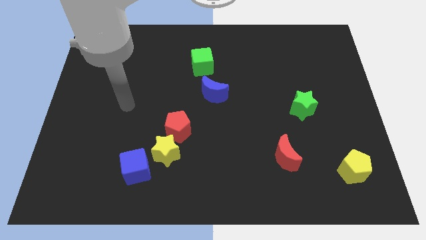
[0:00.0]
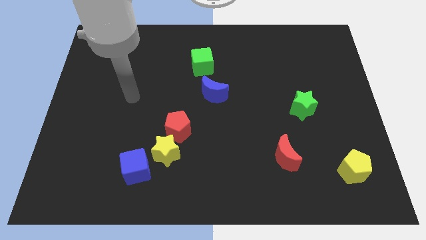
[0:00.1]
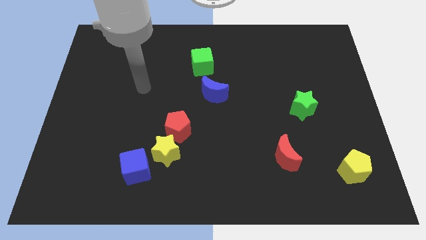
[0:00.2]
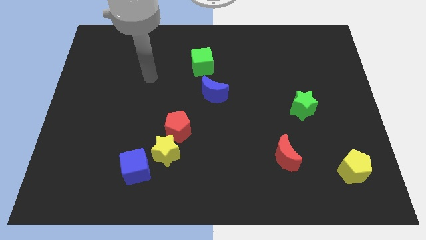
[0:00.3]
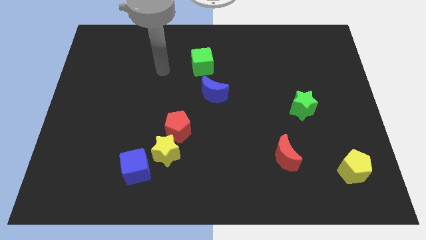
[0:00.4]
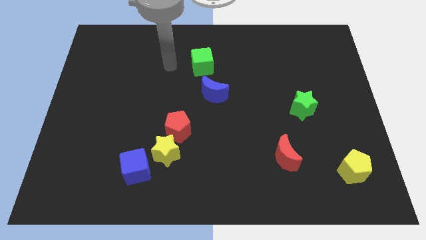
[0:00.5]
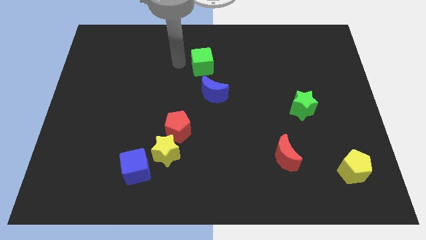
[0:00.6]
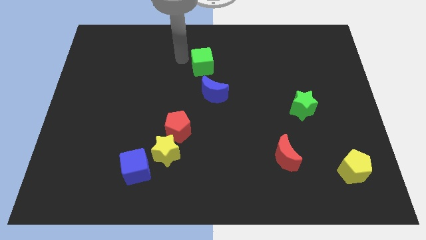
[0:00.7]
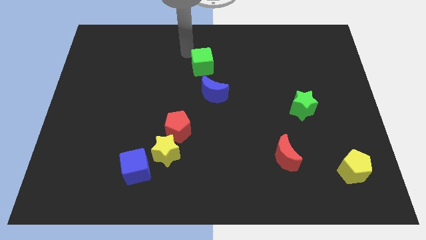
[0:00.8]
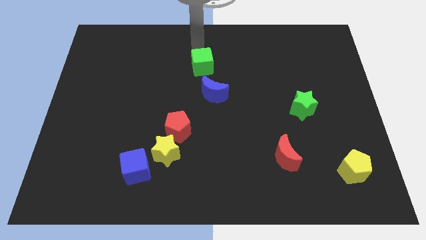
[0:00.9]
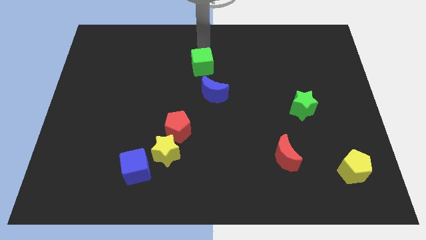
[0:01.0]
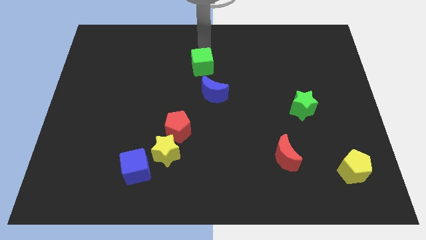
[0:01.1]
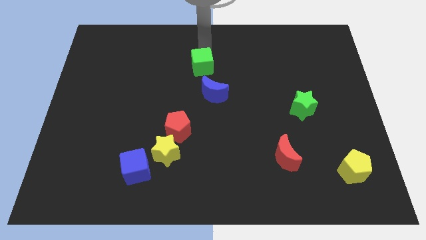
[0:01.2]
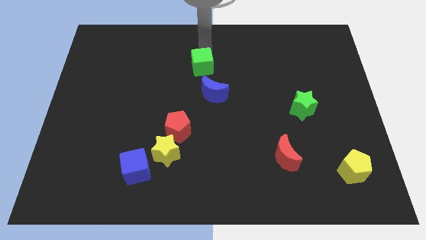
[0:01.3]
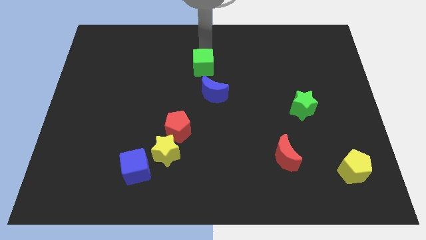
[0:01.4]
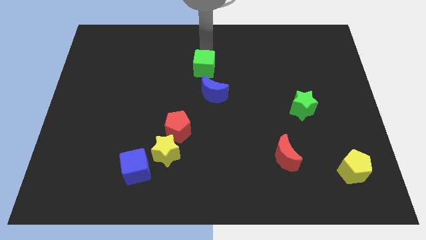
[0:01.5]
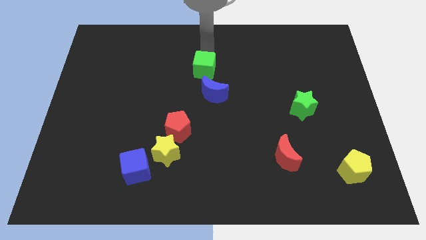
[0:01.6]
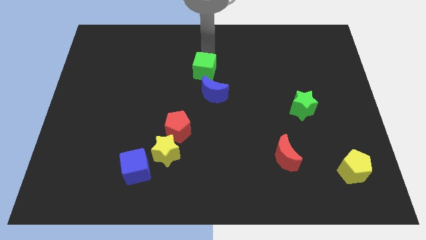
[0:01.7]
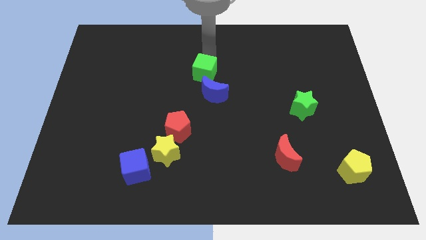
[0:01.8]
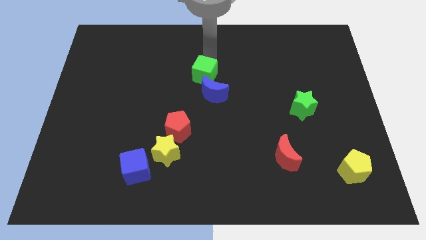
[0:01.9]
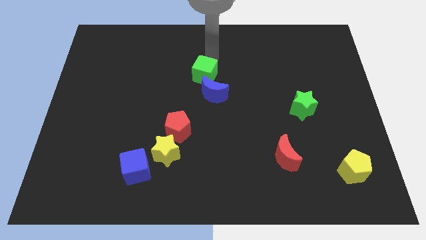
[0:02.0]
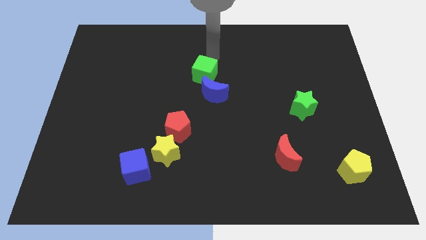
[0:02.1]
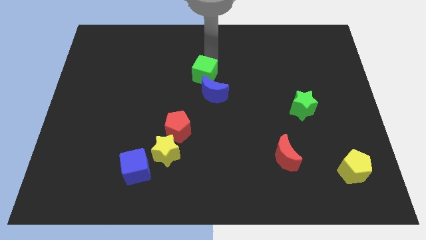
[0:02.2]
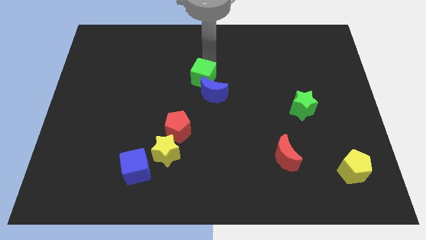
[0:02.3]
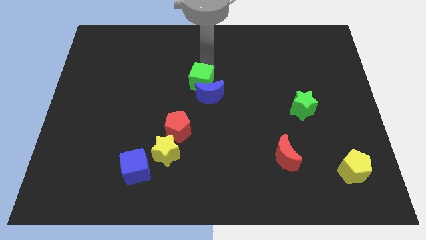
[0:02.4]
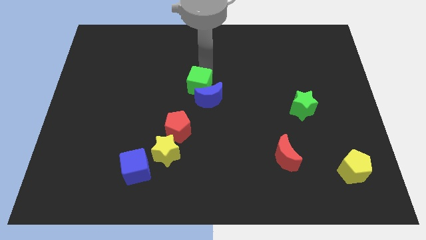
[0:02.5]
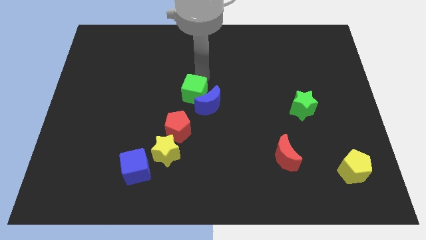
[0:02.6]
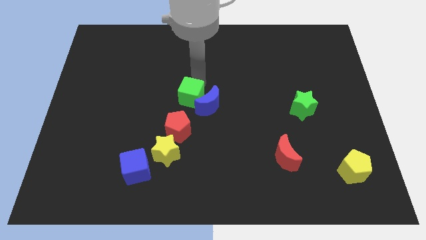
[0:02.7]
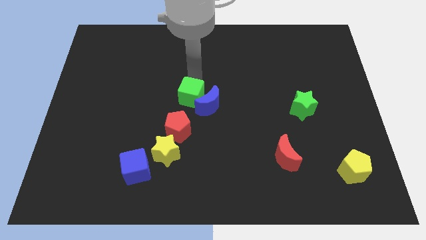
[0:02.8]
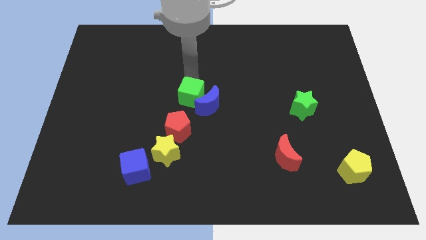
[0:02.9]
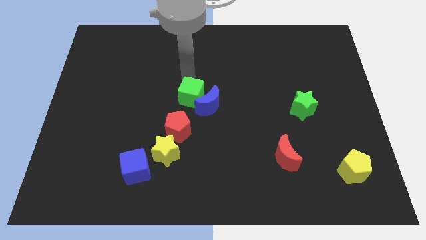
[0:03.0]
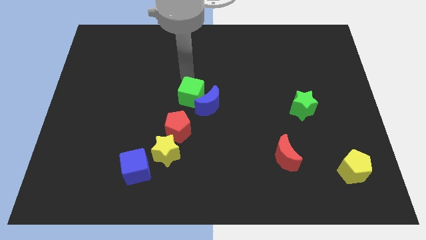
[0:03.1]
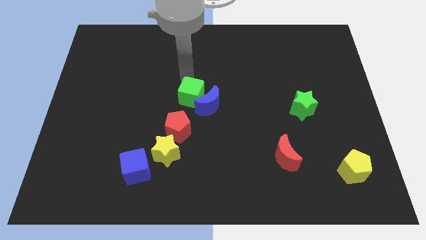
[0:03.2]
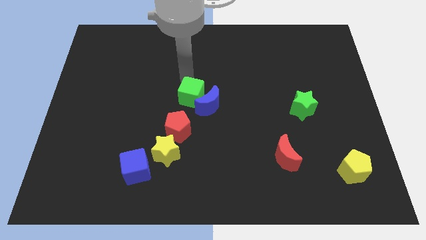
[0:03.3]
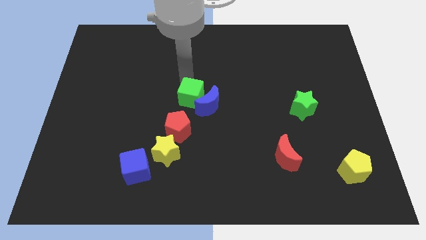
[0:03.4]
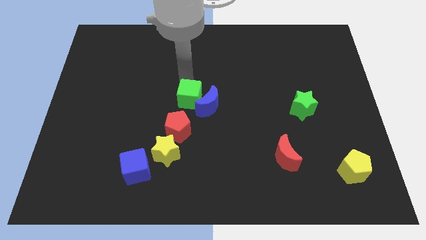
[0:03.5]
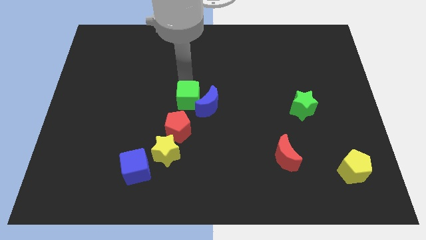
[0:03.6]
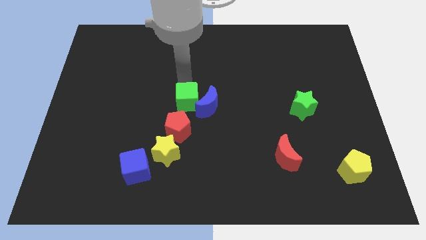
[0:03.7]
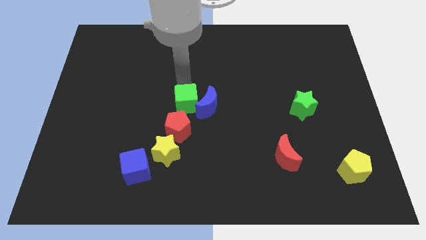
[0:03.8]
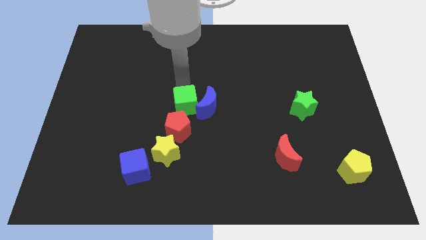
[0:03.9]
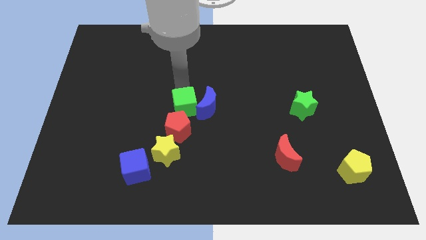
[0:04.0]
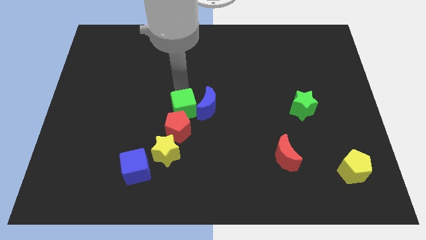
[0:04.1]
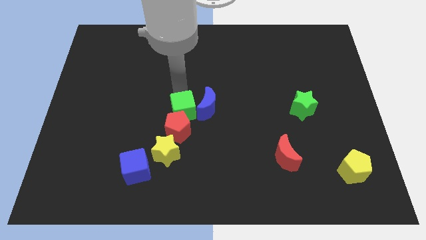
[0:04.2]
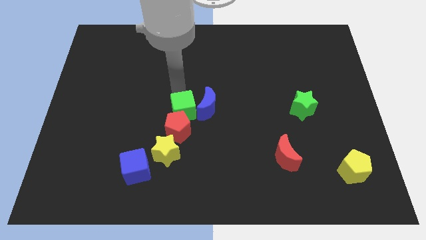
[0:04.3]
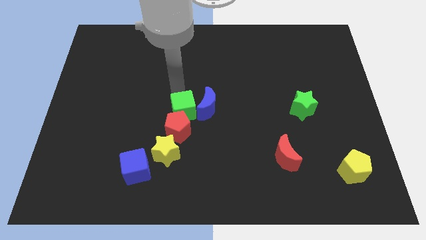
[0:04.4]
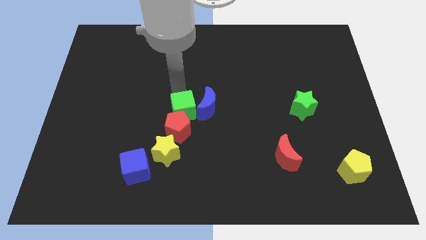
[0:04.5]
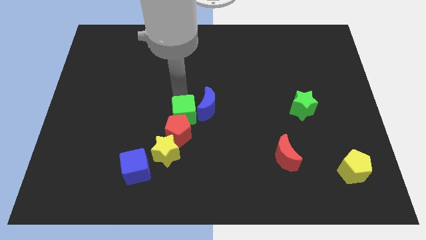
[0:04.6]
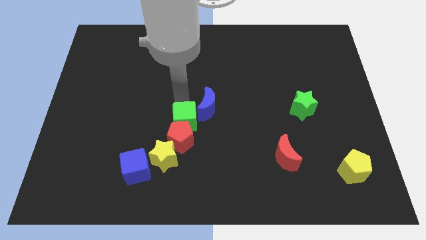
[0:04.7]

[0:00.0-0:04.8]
move the green cube diagonally up and to the right of the yellow star

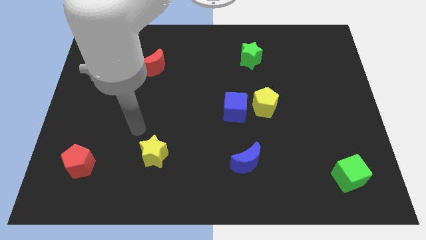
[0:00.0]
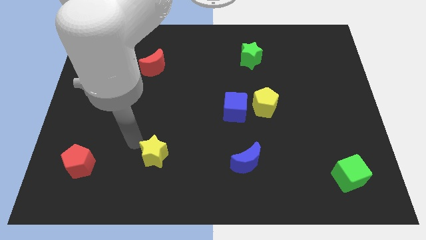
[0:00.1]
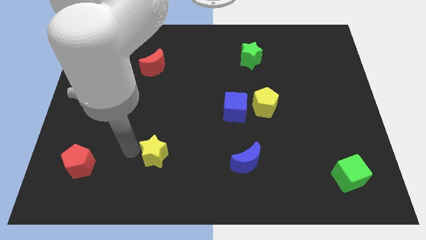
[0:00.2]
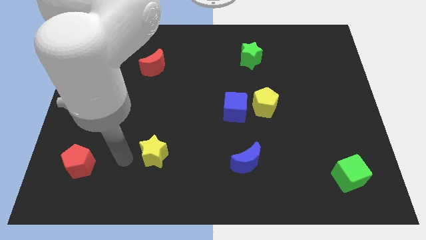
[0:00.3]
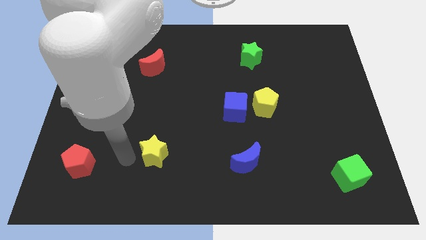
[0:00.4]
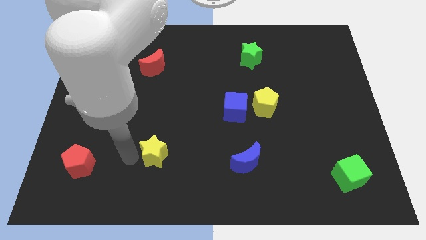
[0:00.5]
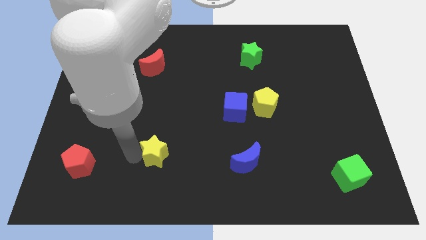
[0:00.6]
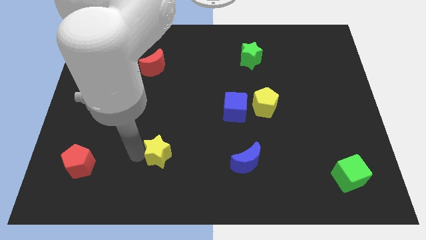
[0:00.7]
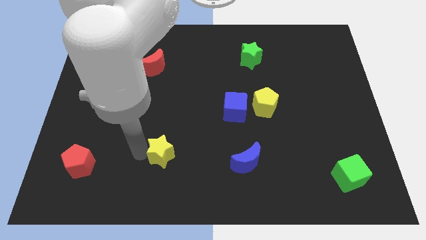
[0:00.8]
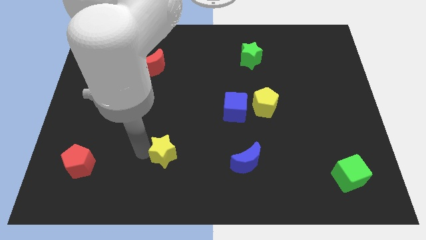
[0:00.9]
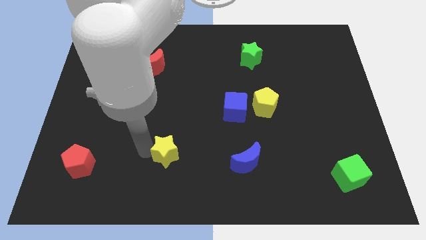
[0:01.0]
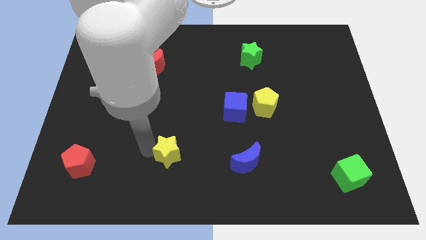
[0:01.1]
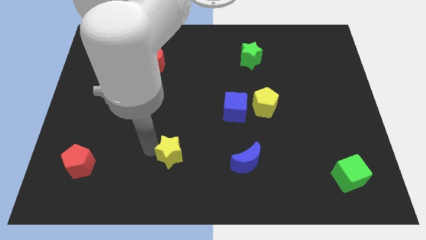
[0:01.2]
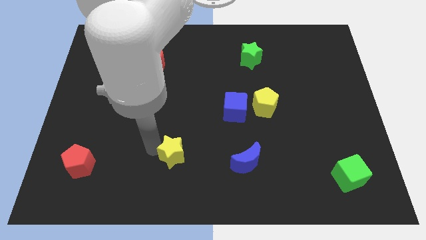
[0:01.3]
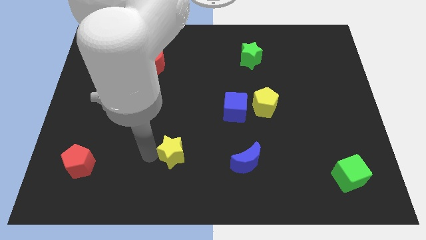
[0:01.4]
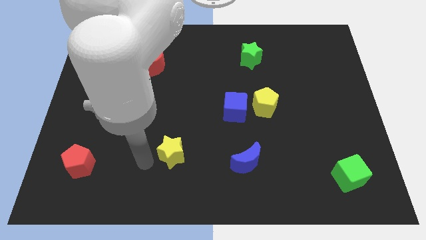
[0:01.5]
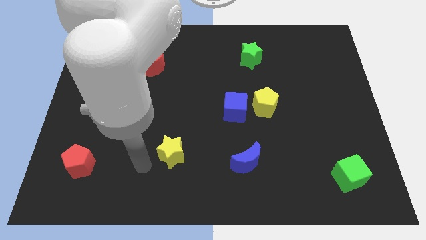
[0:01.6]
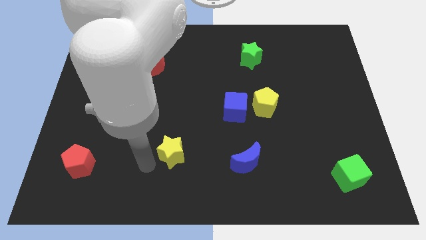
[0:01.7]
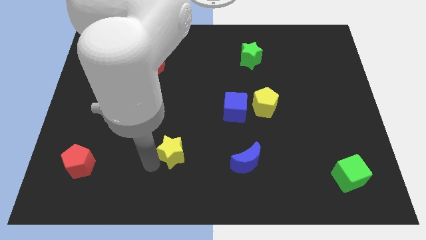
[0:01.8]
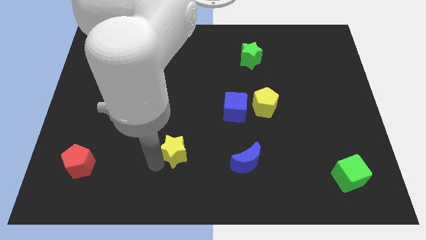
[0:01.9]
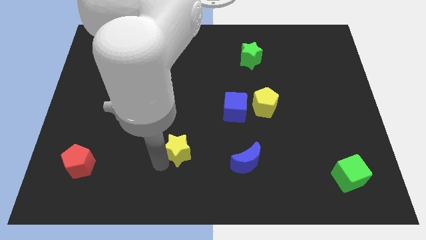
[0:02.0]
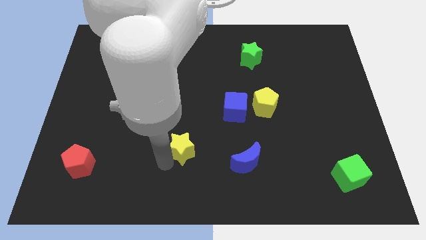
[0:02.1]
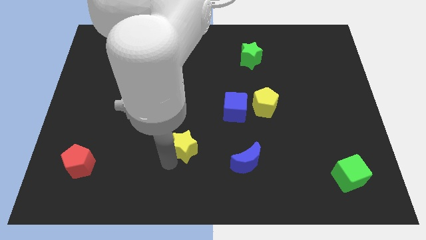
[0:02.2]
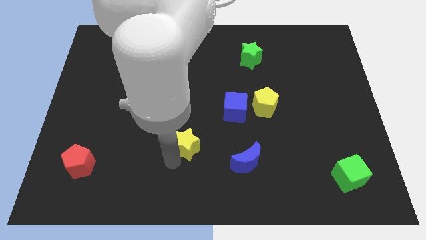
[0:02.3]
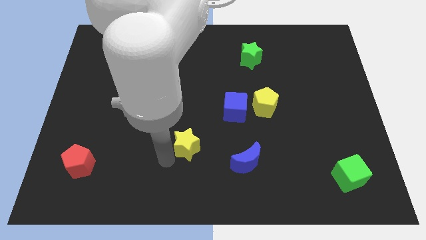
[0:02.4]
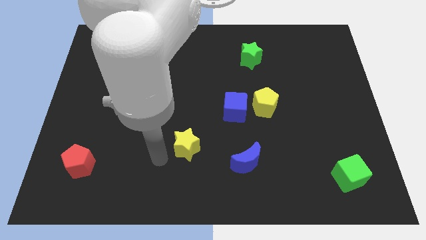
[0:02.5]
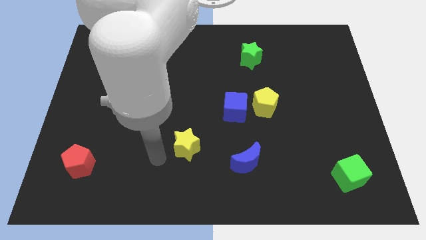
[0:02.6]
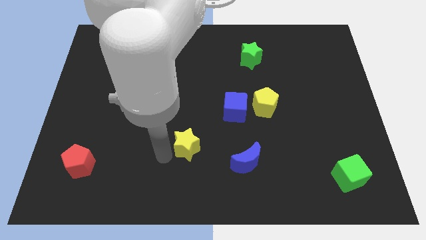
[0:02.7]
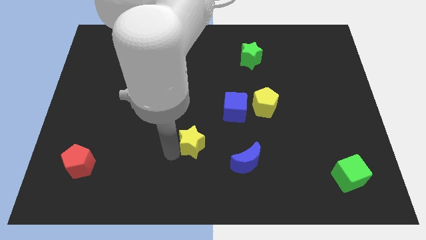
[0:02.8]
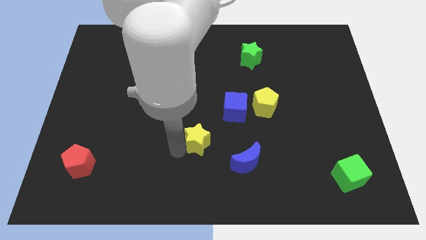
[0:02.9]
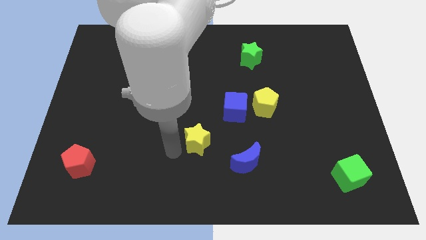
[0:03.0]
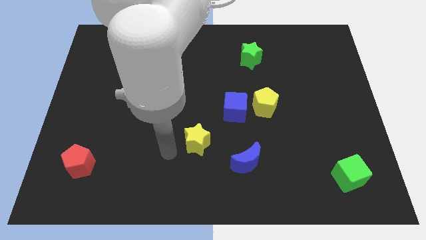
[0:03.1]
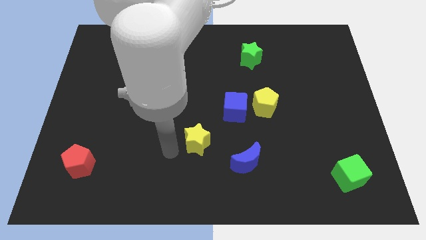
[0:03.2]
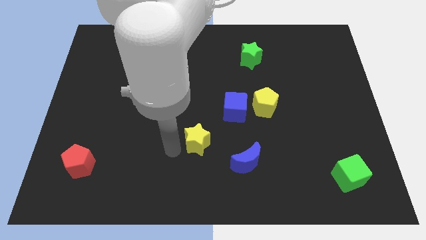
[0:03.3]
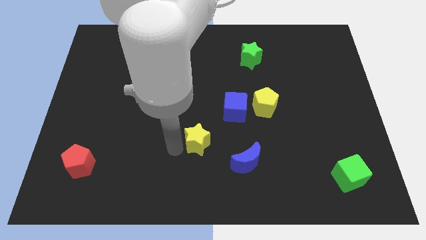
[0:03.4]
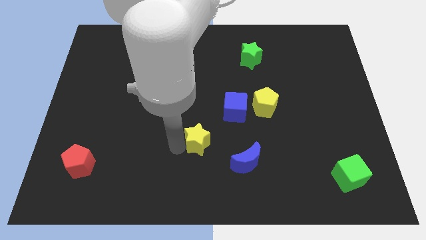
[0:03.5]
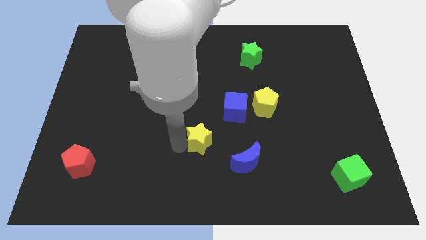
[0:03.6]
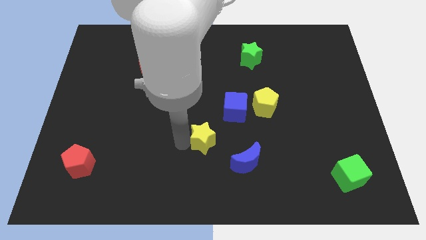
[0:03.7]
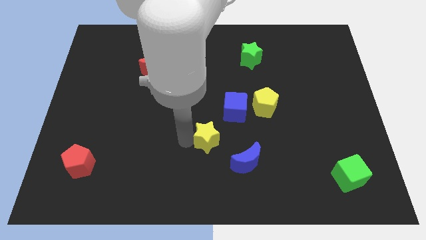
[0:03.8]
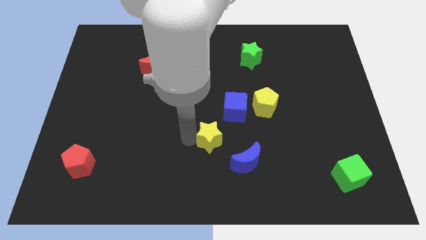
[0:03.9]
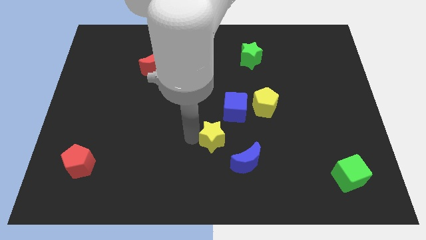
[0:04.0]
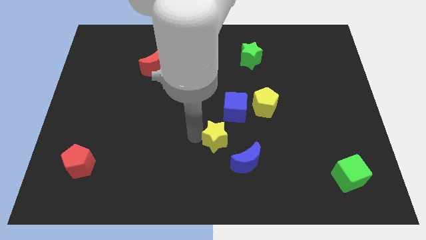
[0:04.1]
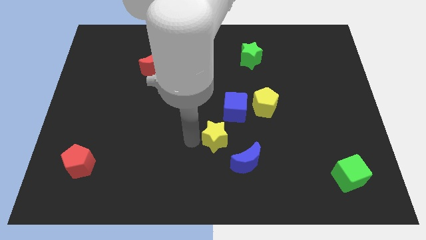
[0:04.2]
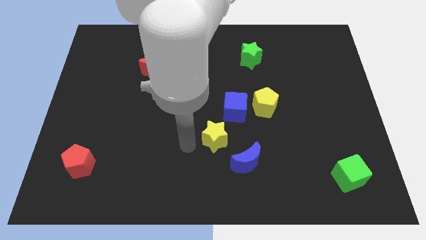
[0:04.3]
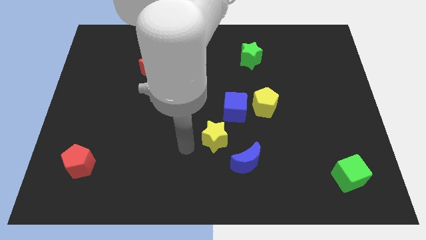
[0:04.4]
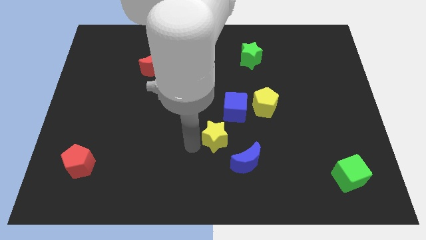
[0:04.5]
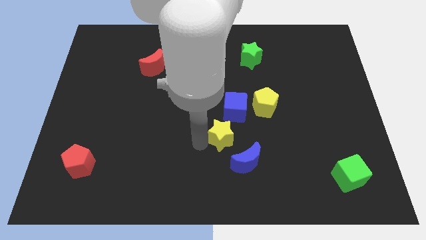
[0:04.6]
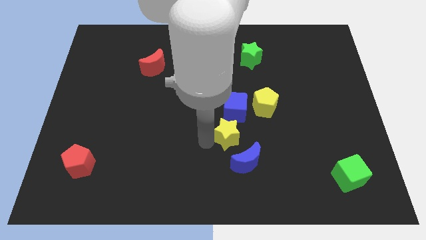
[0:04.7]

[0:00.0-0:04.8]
slide the yellow star above the blue moon
